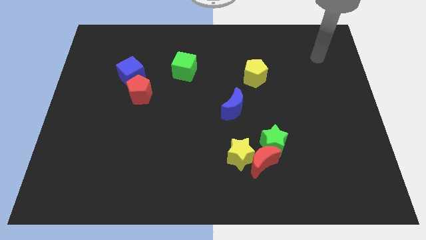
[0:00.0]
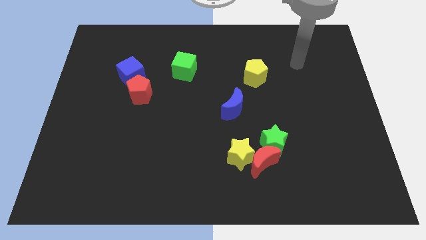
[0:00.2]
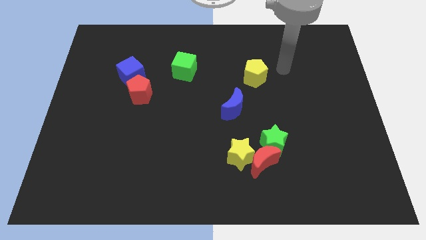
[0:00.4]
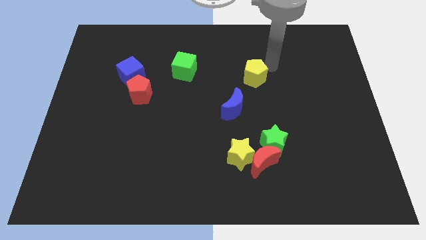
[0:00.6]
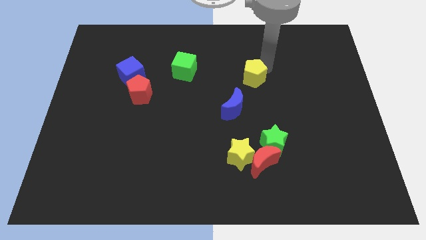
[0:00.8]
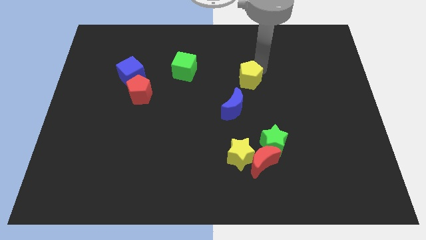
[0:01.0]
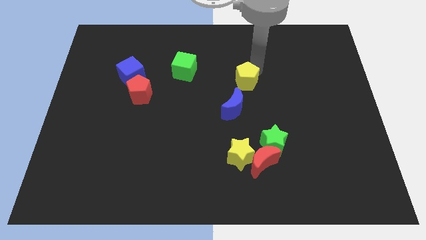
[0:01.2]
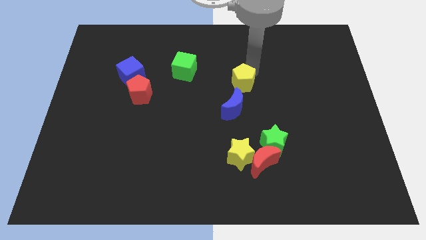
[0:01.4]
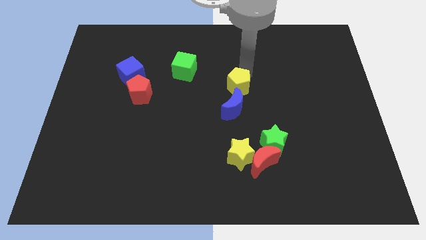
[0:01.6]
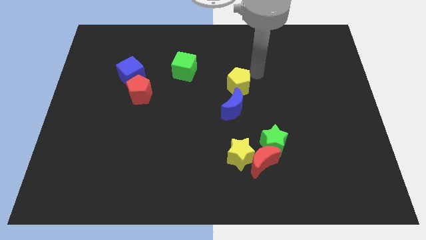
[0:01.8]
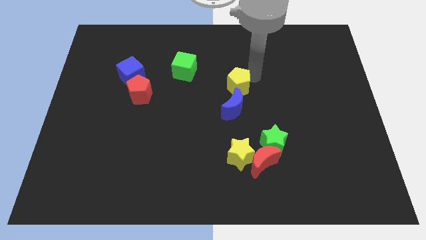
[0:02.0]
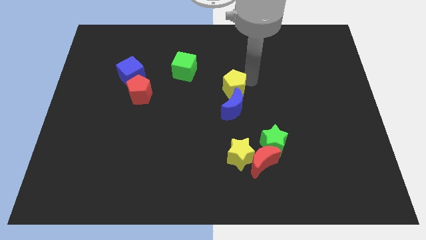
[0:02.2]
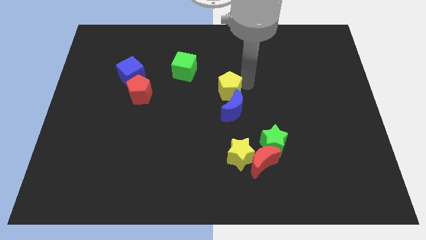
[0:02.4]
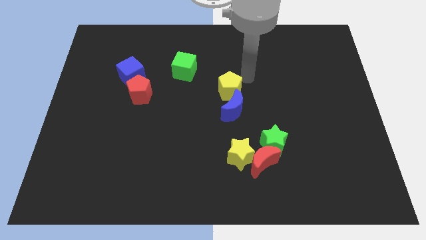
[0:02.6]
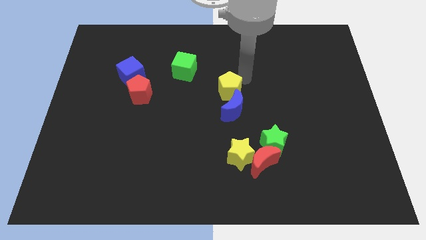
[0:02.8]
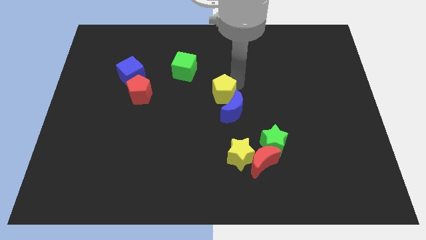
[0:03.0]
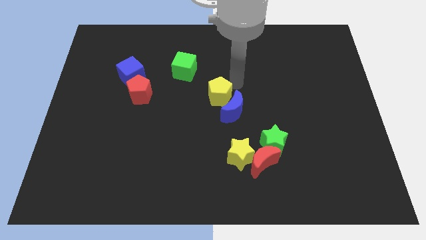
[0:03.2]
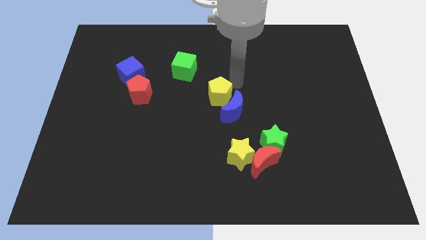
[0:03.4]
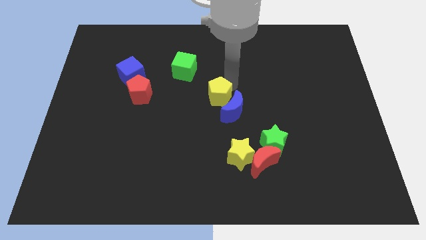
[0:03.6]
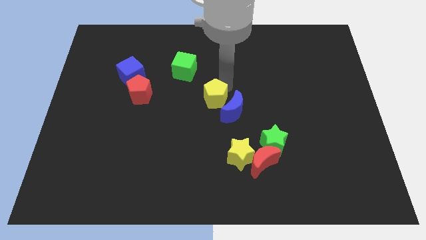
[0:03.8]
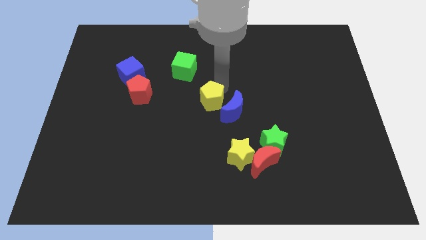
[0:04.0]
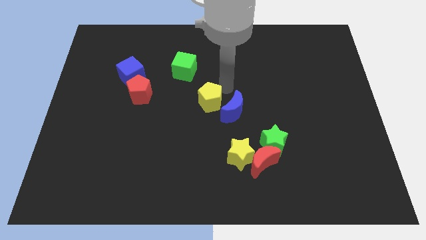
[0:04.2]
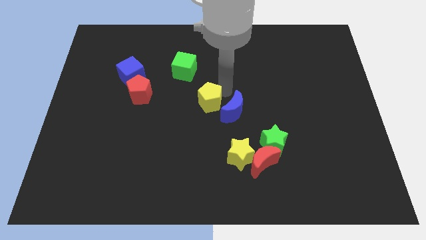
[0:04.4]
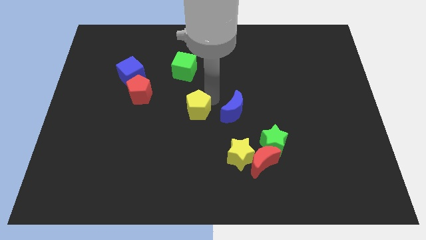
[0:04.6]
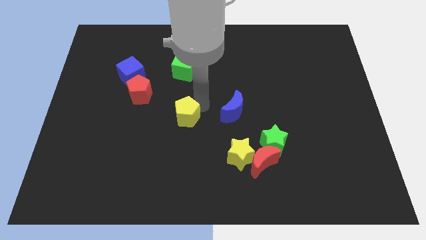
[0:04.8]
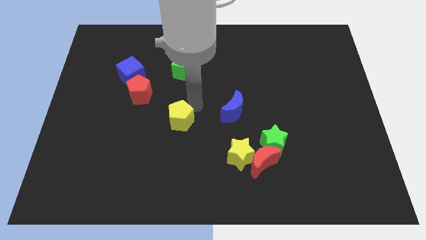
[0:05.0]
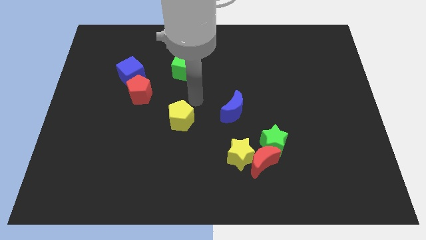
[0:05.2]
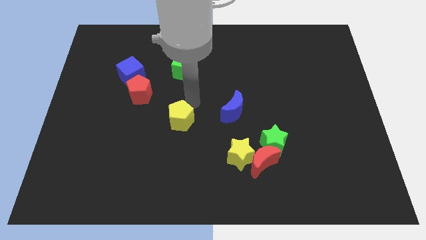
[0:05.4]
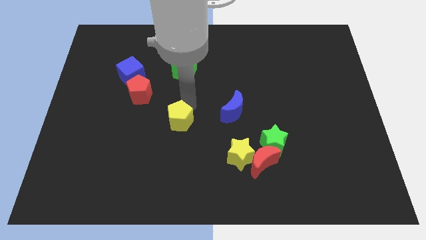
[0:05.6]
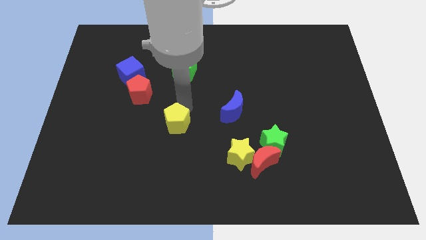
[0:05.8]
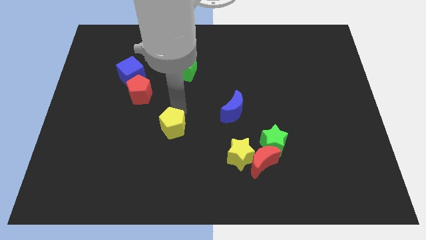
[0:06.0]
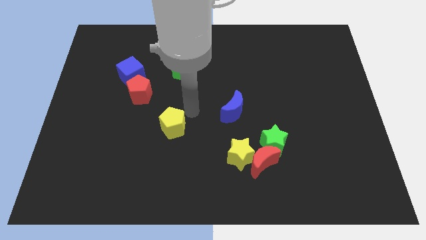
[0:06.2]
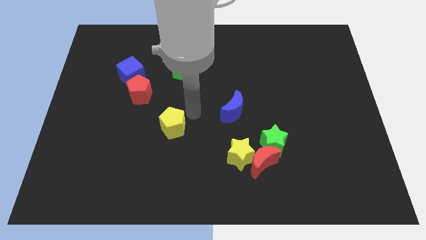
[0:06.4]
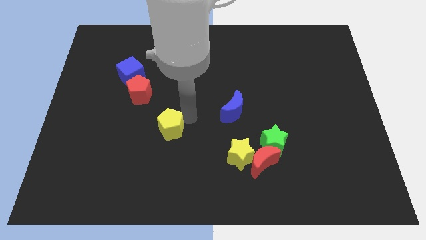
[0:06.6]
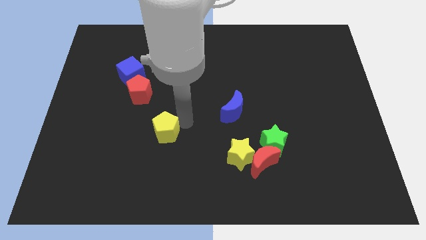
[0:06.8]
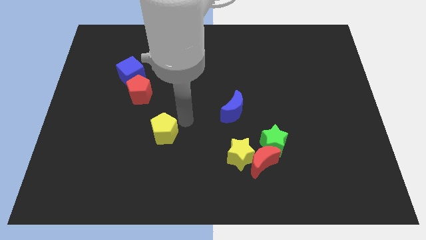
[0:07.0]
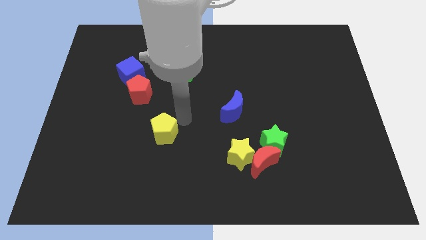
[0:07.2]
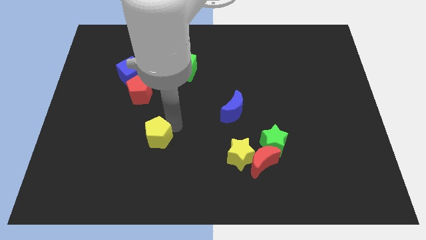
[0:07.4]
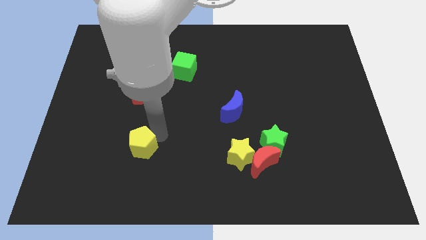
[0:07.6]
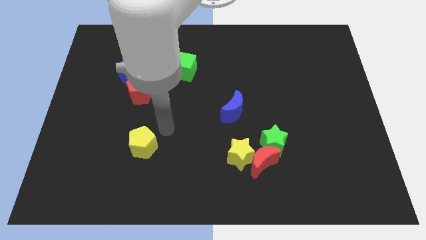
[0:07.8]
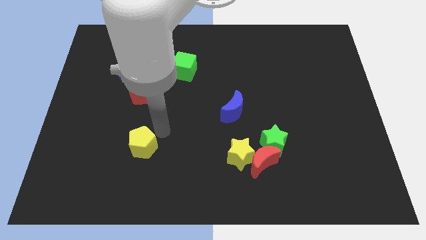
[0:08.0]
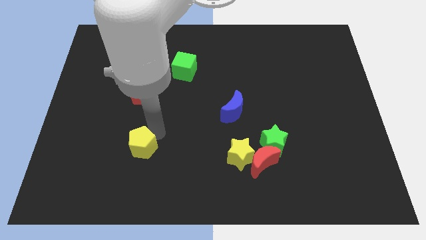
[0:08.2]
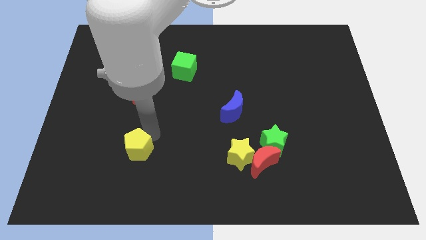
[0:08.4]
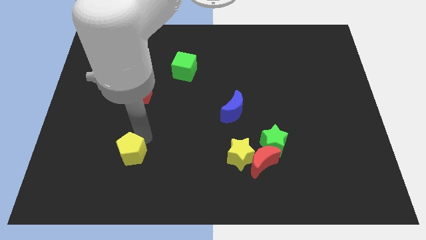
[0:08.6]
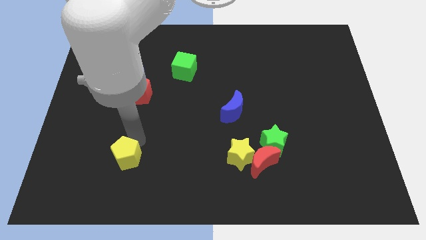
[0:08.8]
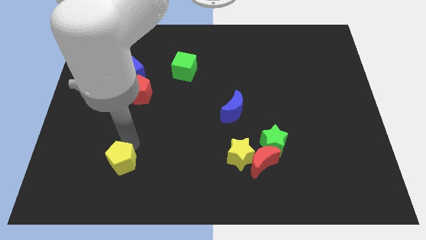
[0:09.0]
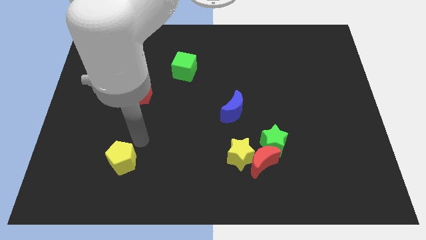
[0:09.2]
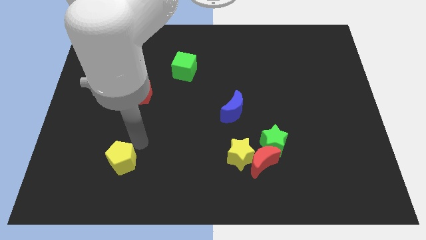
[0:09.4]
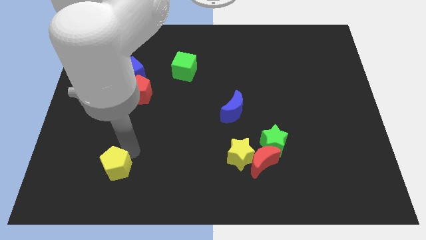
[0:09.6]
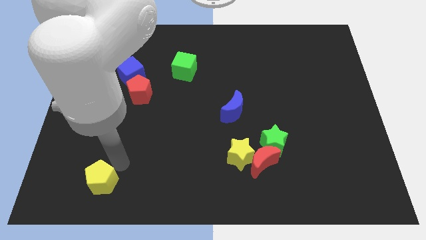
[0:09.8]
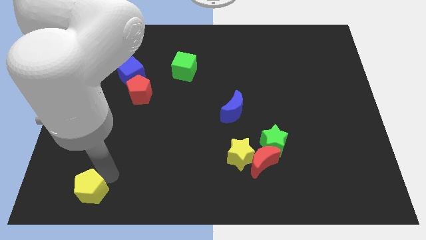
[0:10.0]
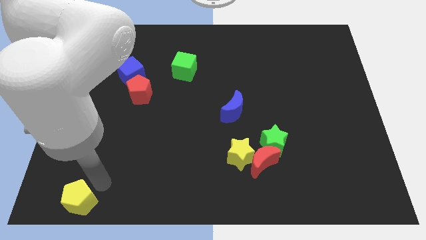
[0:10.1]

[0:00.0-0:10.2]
push the yellow pentagon to the lower left corner

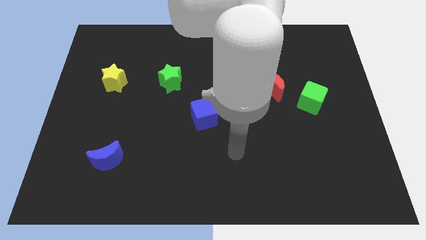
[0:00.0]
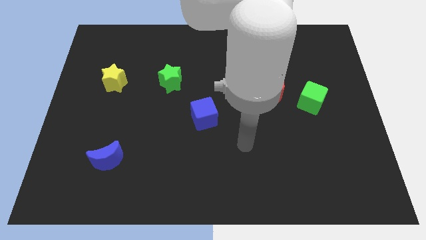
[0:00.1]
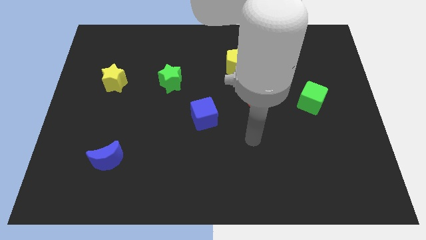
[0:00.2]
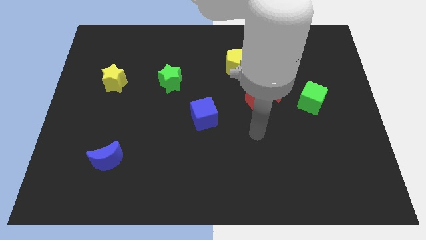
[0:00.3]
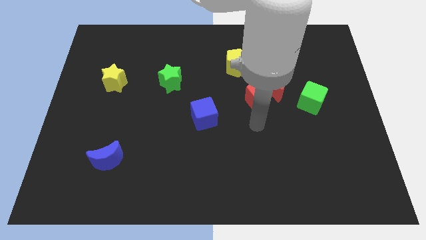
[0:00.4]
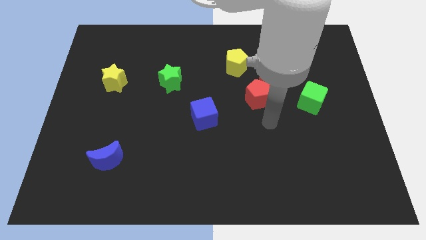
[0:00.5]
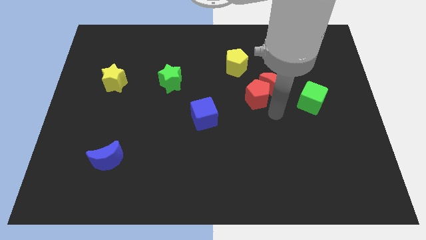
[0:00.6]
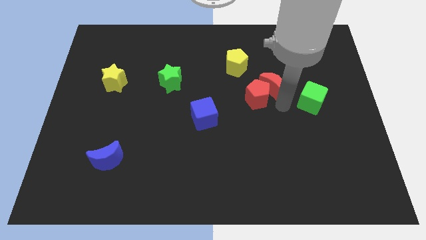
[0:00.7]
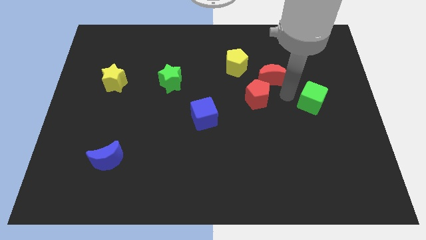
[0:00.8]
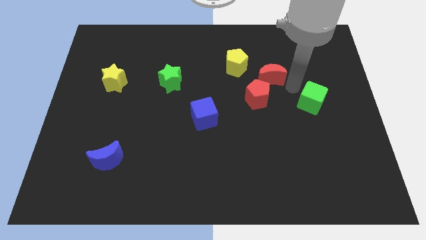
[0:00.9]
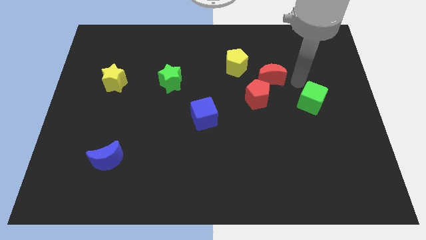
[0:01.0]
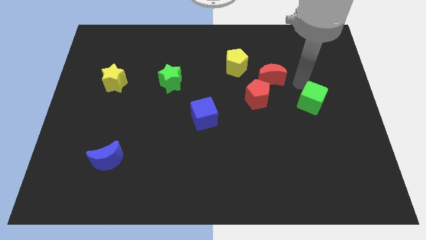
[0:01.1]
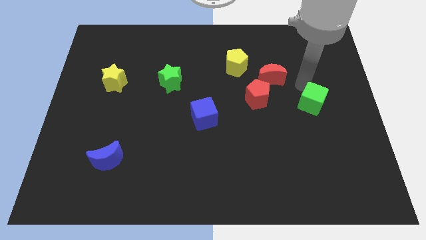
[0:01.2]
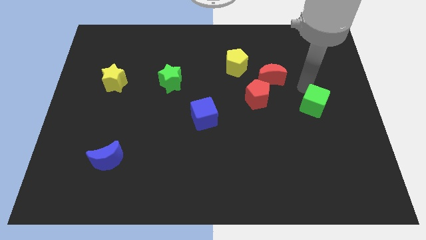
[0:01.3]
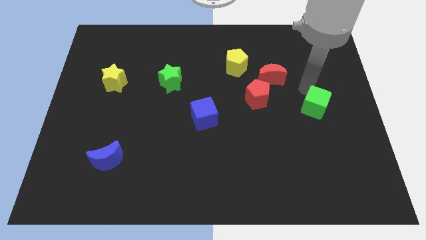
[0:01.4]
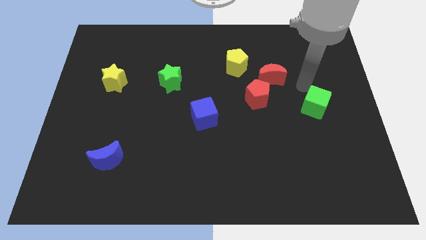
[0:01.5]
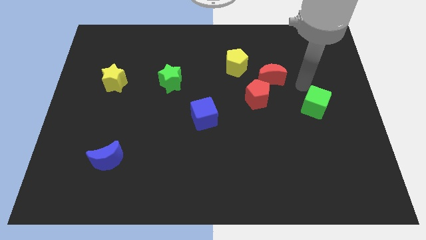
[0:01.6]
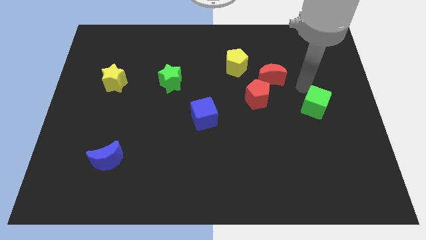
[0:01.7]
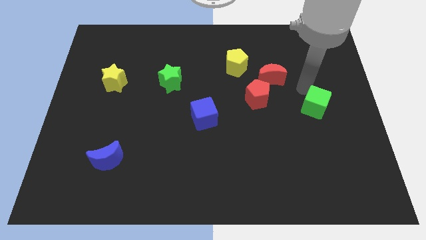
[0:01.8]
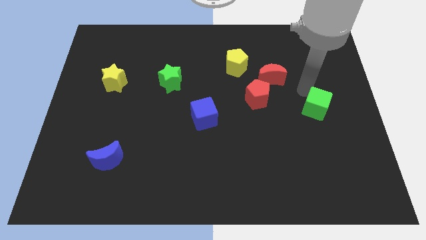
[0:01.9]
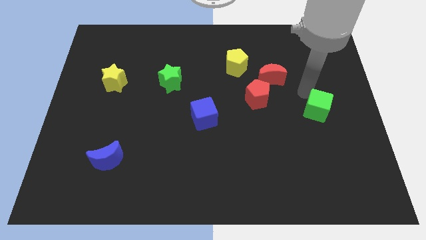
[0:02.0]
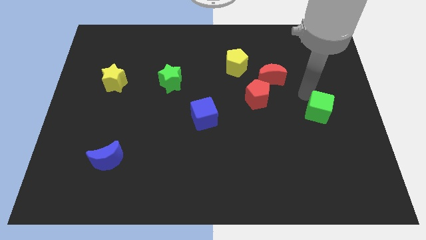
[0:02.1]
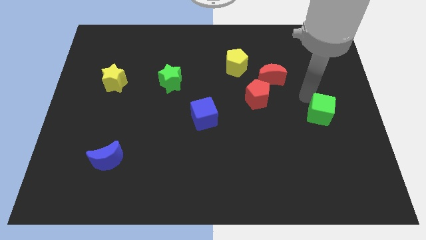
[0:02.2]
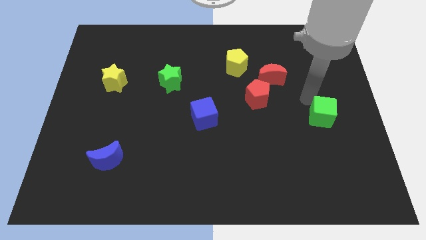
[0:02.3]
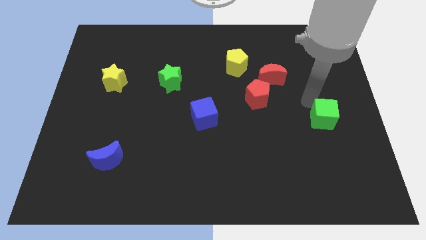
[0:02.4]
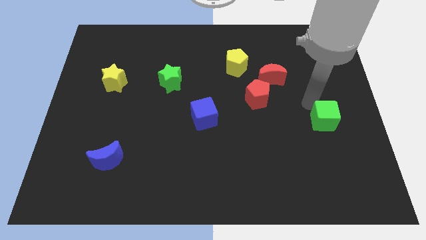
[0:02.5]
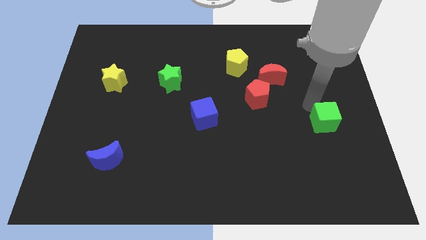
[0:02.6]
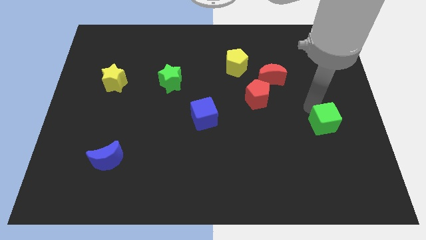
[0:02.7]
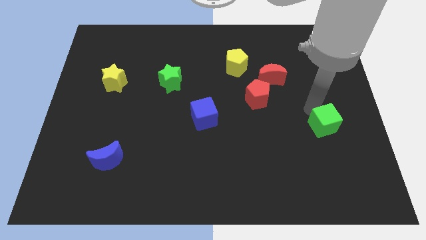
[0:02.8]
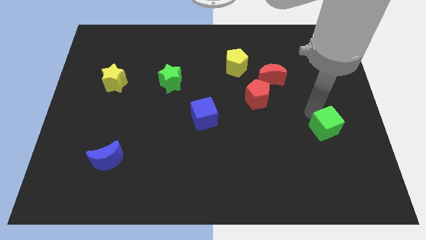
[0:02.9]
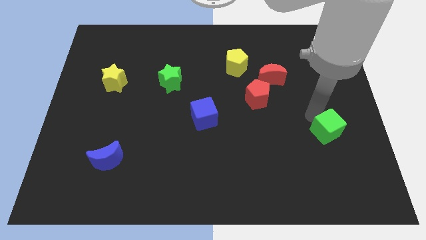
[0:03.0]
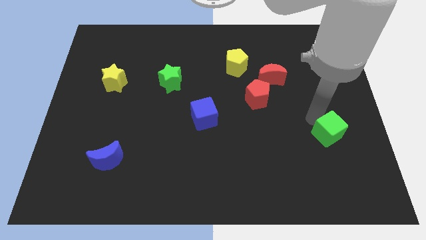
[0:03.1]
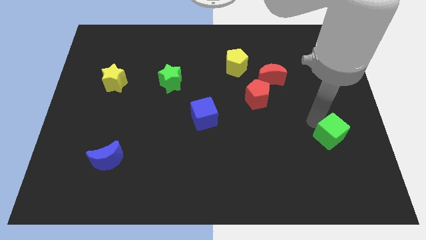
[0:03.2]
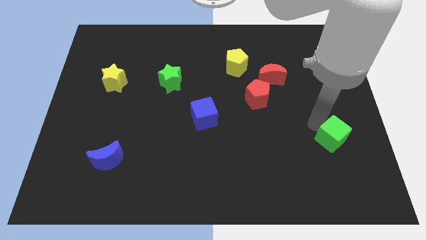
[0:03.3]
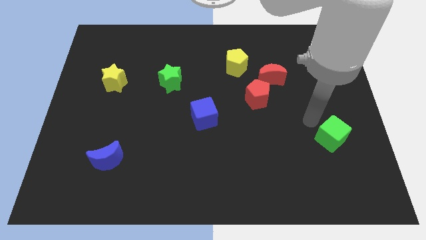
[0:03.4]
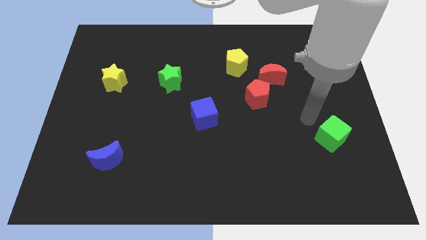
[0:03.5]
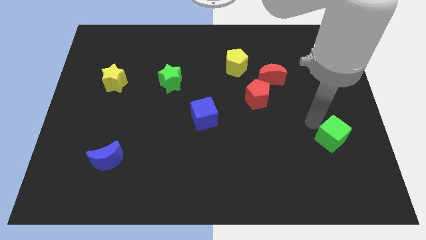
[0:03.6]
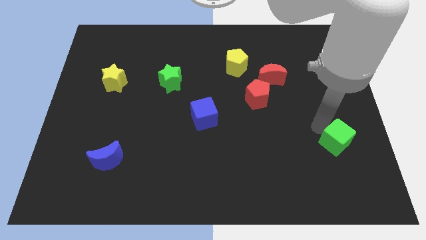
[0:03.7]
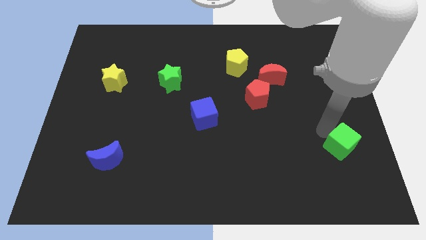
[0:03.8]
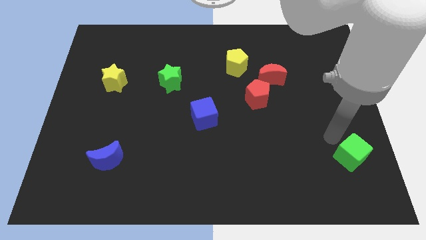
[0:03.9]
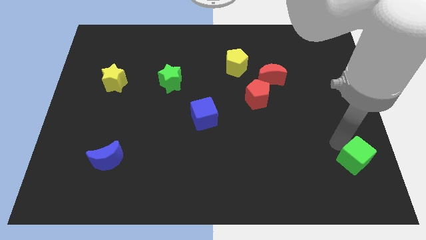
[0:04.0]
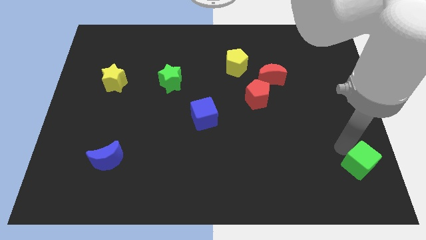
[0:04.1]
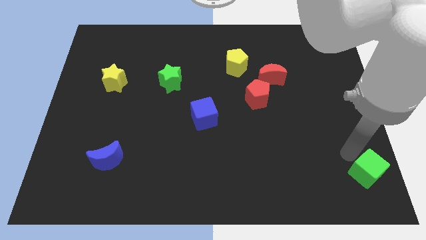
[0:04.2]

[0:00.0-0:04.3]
push the green cube to the lower right corner
